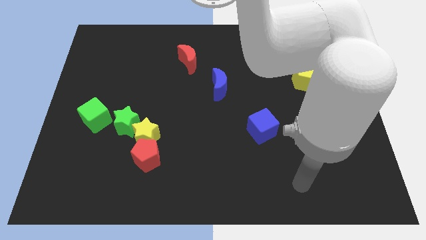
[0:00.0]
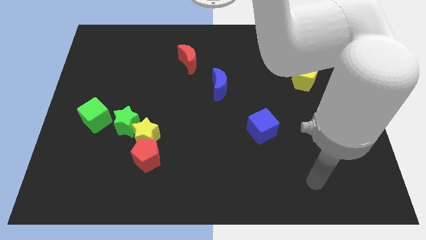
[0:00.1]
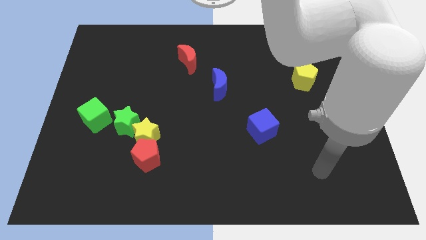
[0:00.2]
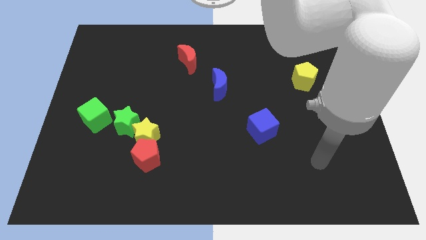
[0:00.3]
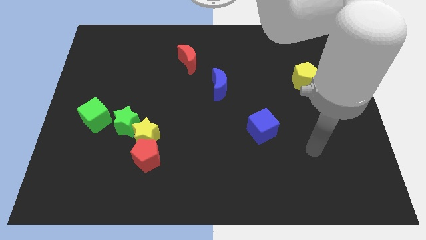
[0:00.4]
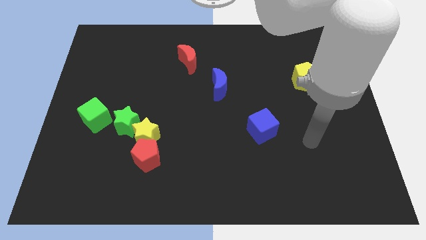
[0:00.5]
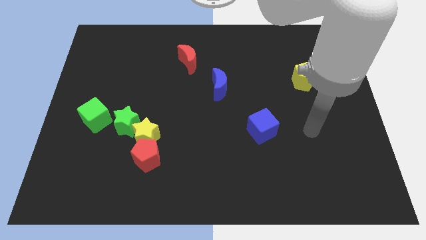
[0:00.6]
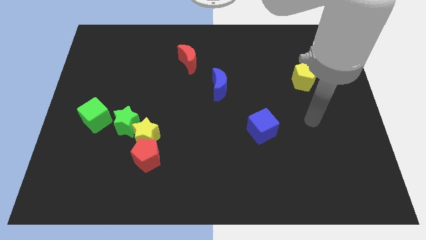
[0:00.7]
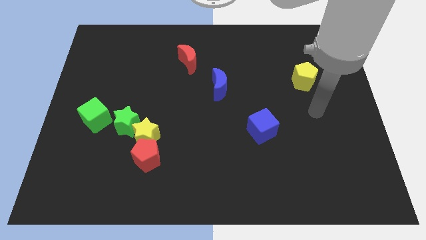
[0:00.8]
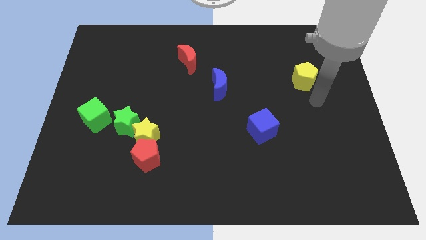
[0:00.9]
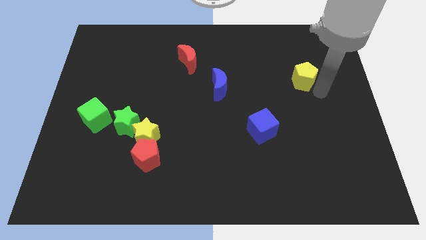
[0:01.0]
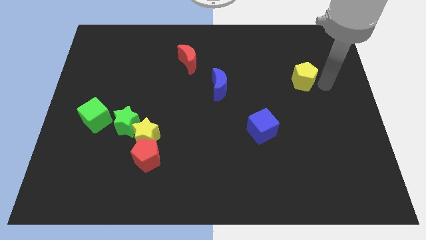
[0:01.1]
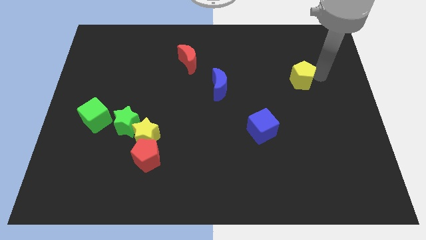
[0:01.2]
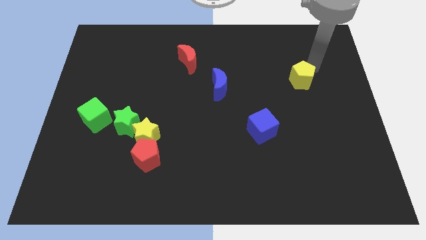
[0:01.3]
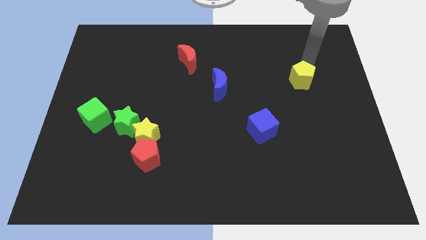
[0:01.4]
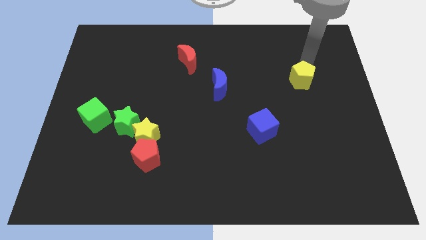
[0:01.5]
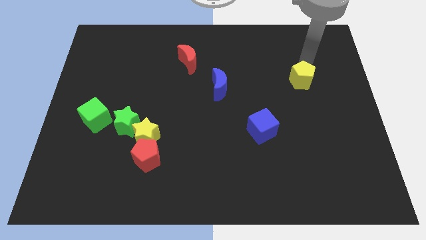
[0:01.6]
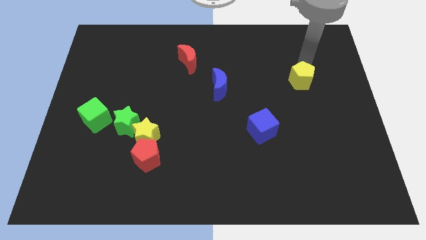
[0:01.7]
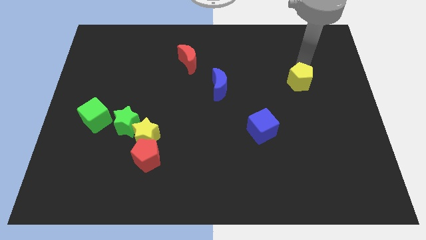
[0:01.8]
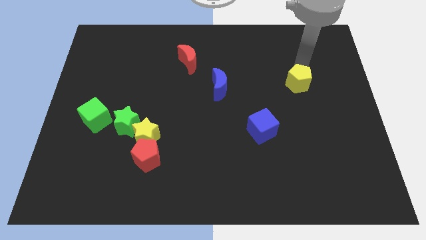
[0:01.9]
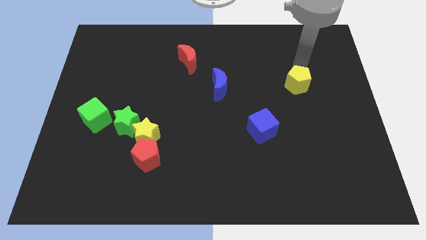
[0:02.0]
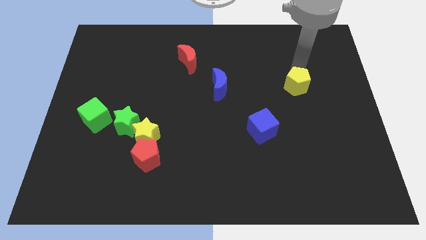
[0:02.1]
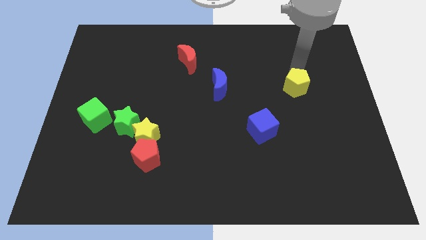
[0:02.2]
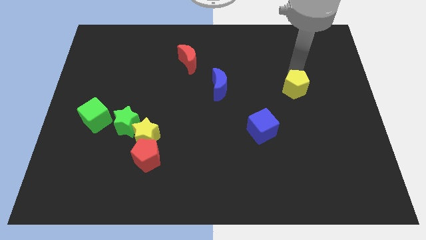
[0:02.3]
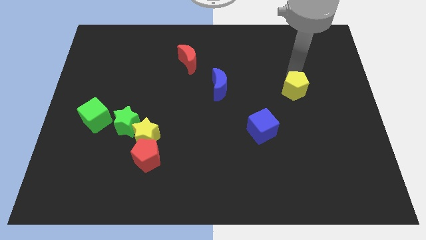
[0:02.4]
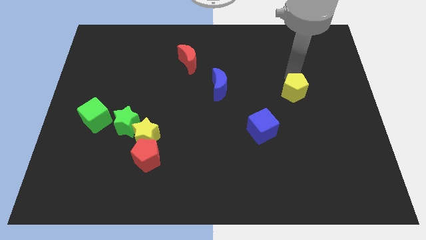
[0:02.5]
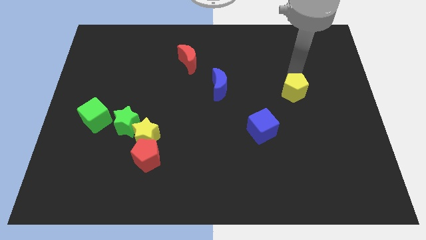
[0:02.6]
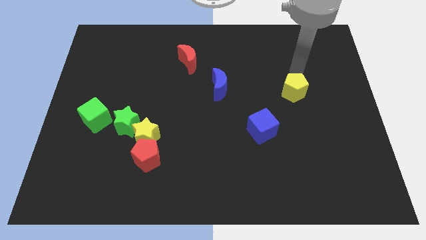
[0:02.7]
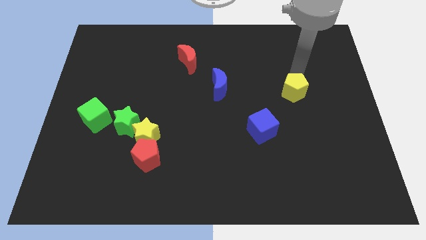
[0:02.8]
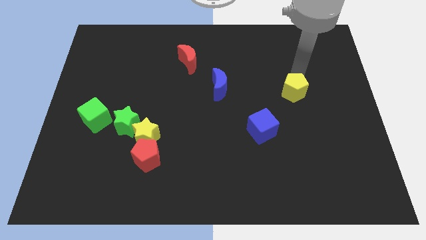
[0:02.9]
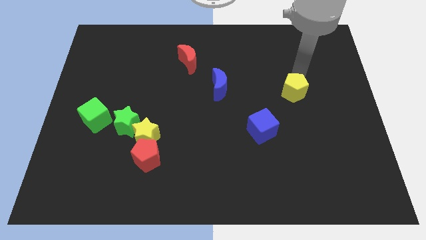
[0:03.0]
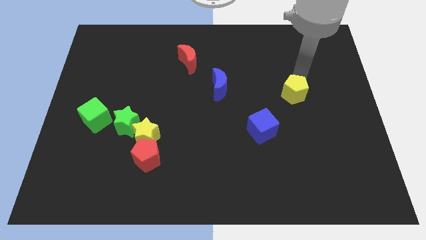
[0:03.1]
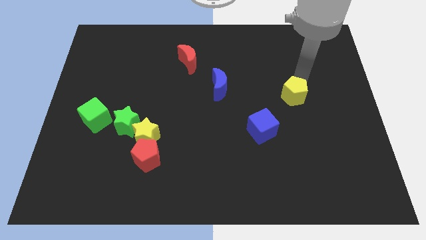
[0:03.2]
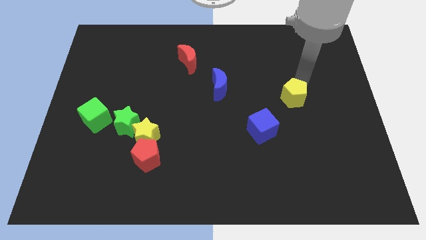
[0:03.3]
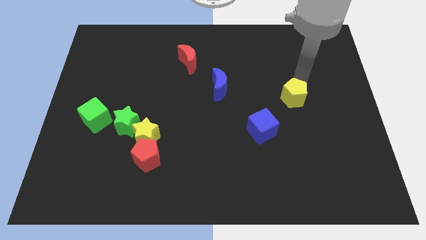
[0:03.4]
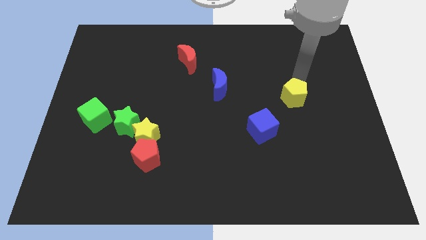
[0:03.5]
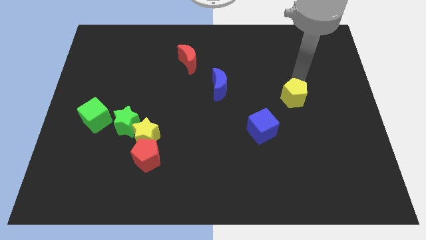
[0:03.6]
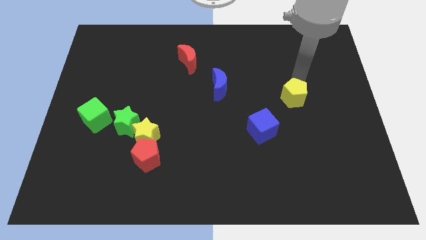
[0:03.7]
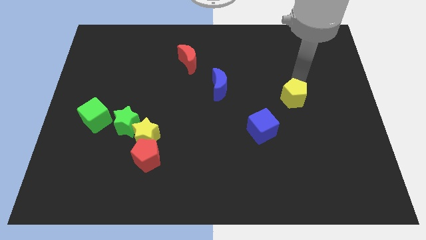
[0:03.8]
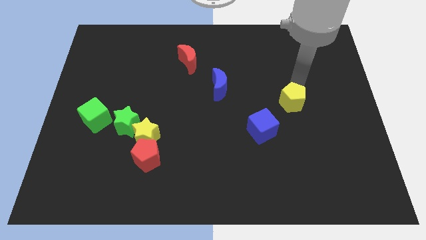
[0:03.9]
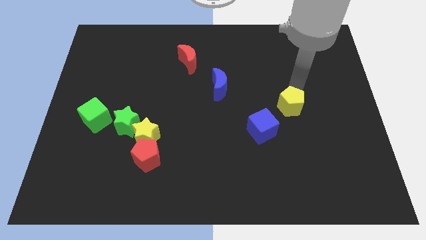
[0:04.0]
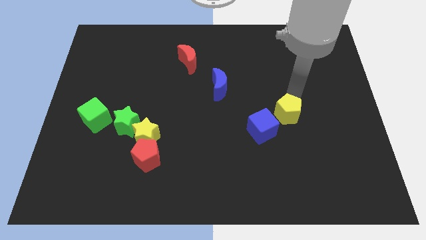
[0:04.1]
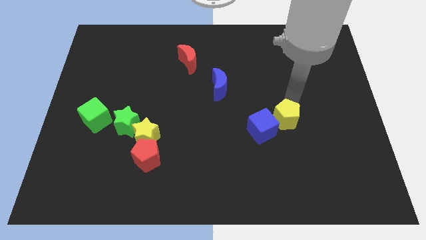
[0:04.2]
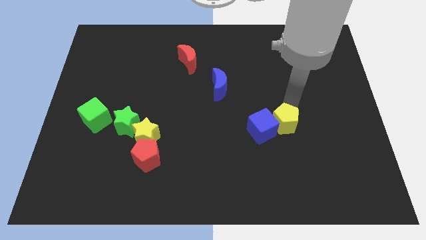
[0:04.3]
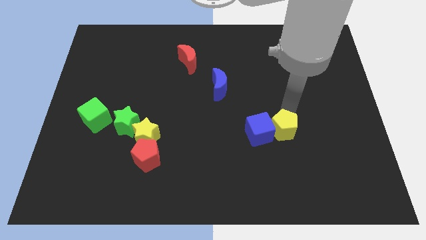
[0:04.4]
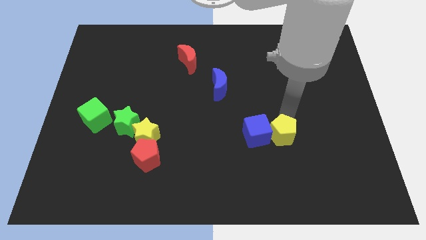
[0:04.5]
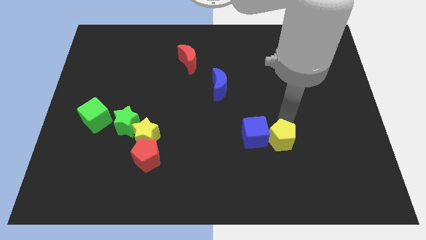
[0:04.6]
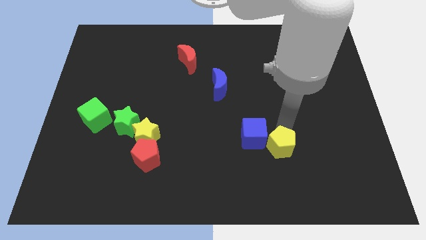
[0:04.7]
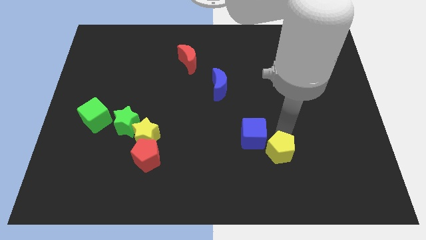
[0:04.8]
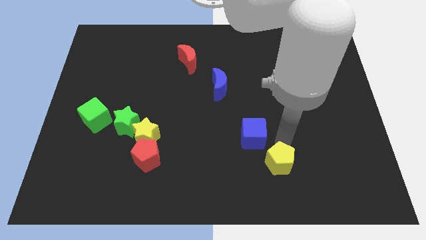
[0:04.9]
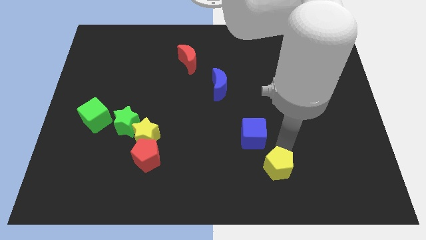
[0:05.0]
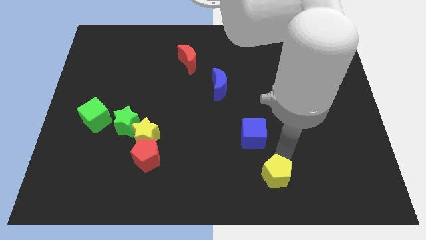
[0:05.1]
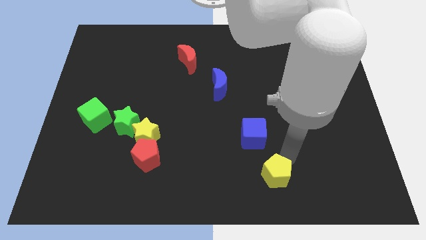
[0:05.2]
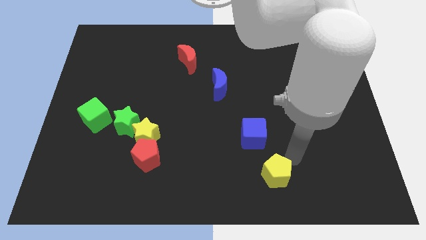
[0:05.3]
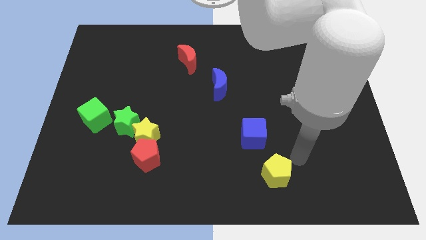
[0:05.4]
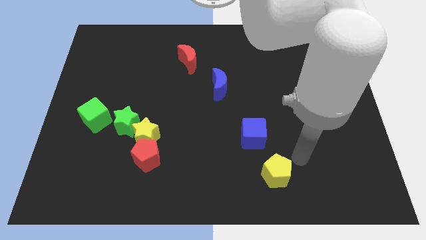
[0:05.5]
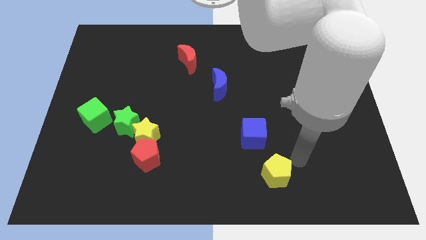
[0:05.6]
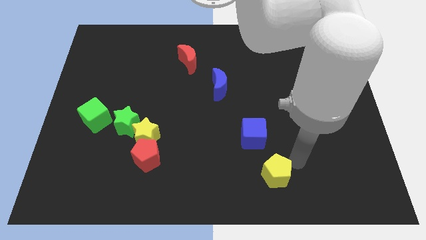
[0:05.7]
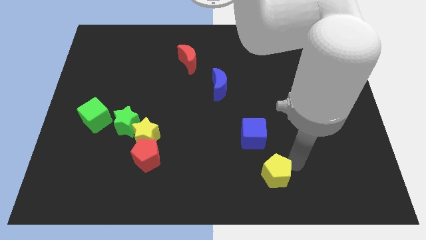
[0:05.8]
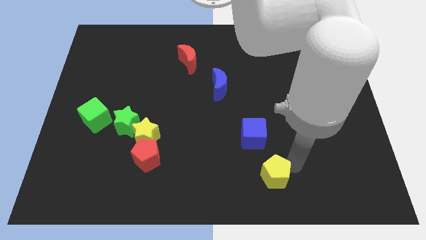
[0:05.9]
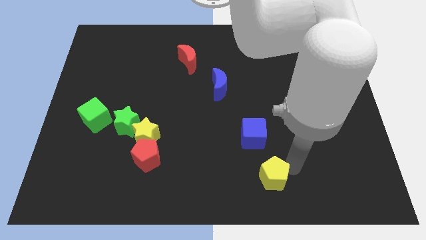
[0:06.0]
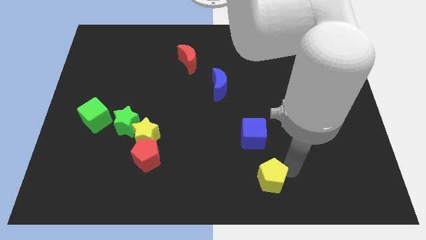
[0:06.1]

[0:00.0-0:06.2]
move the yellow pentagon to the bottom side
